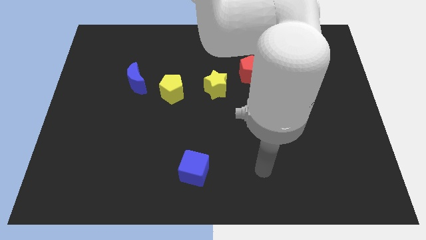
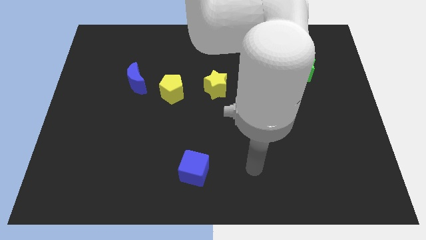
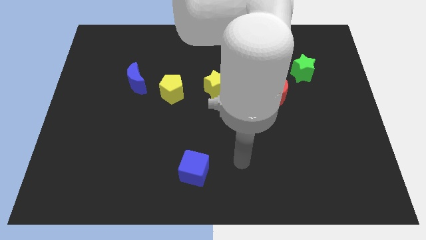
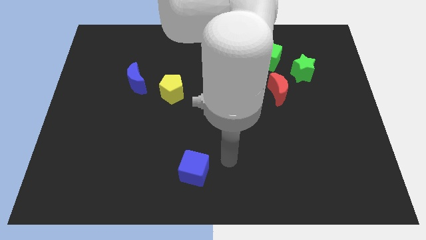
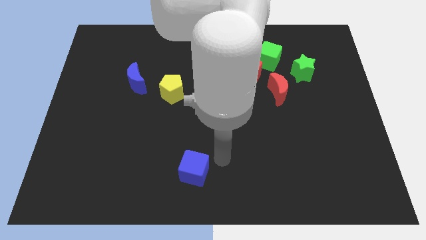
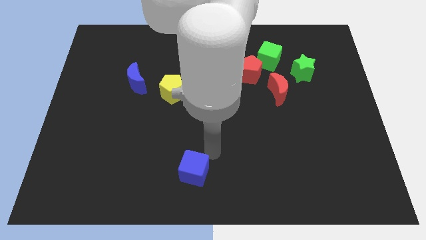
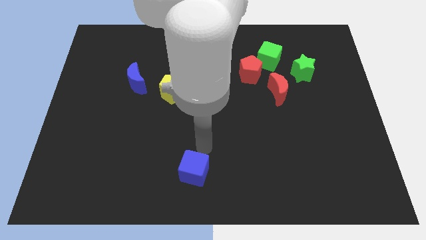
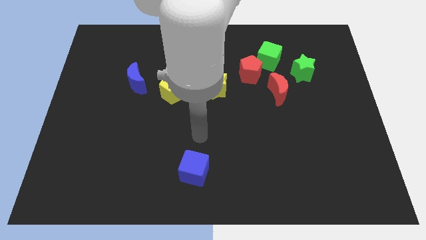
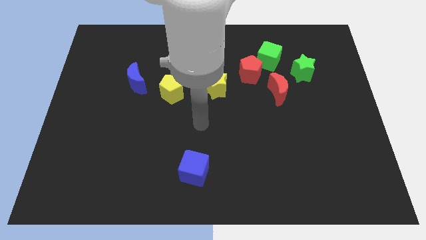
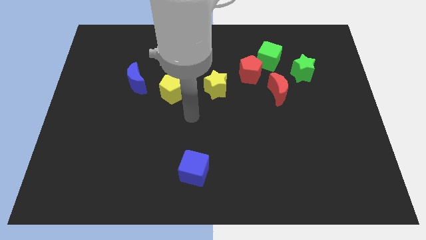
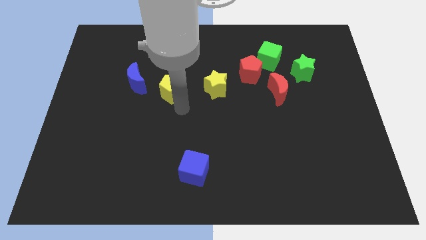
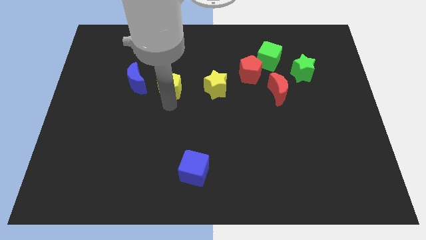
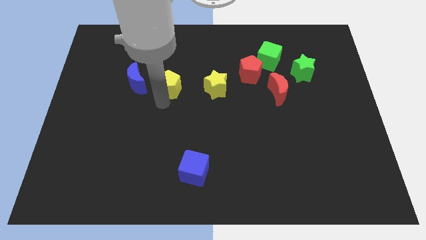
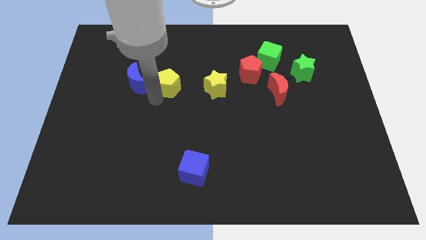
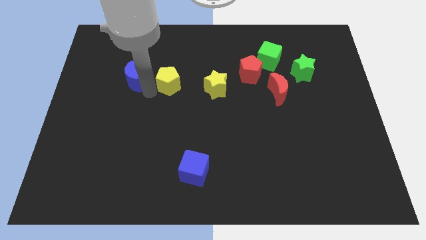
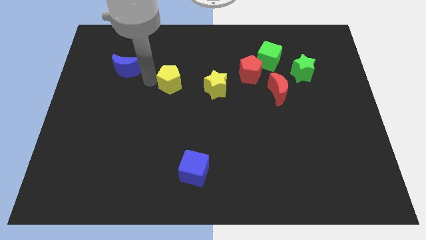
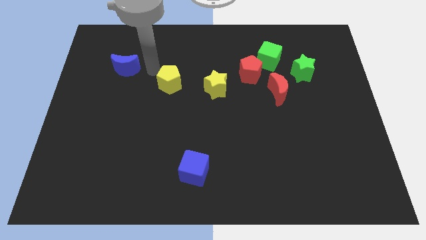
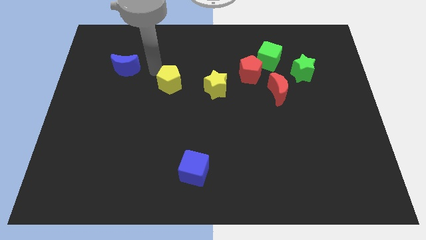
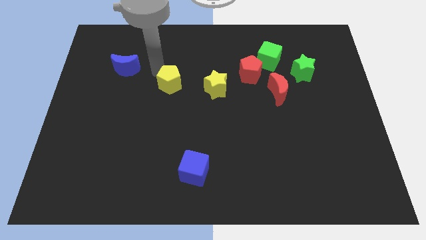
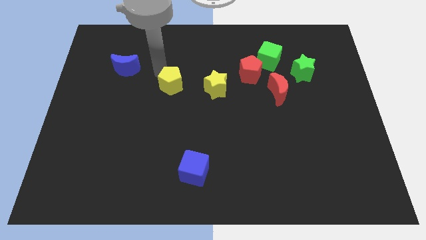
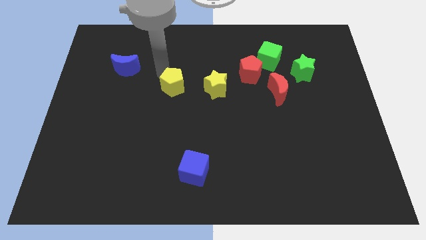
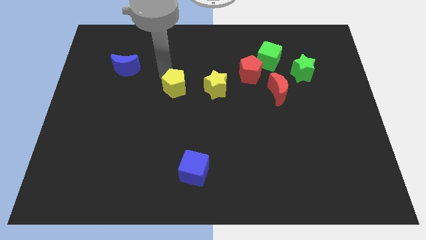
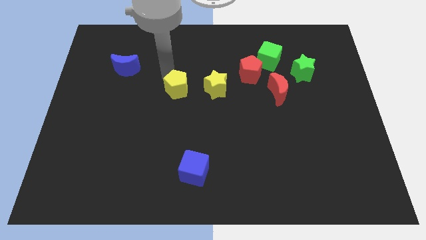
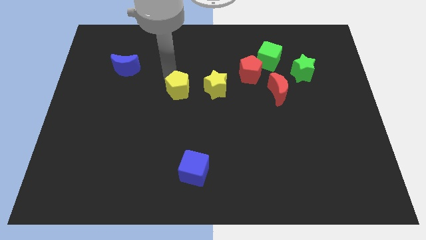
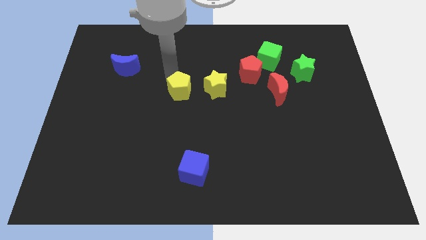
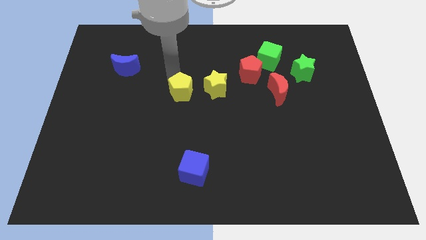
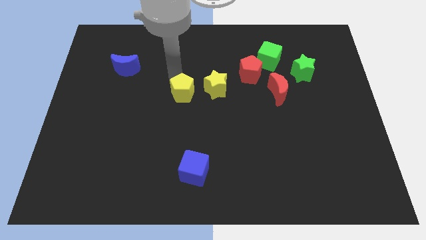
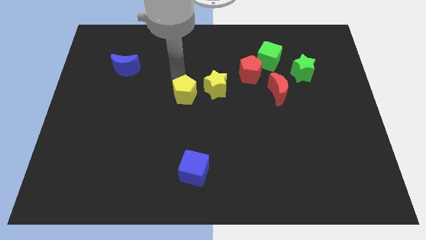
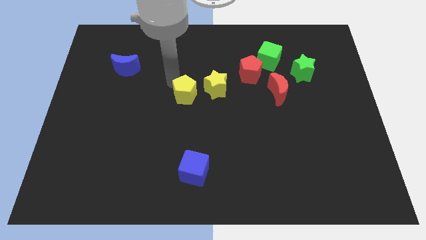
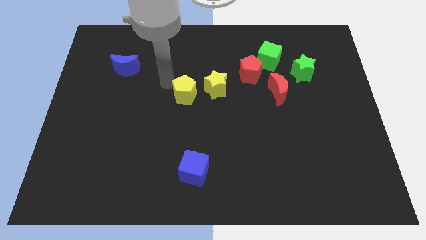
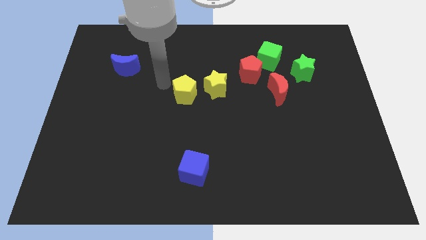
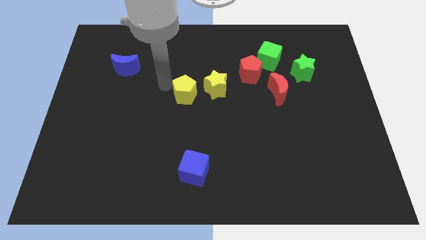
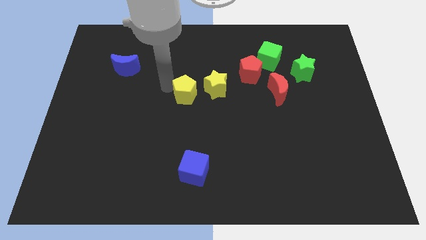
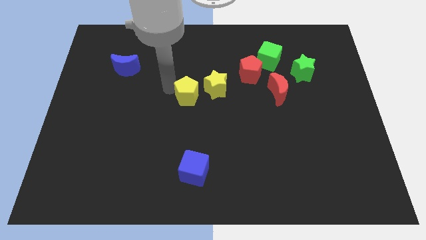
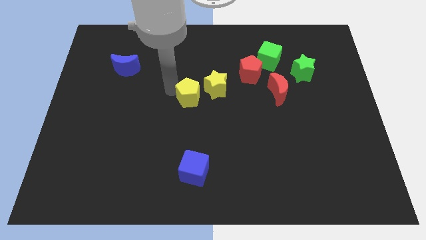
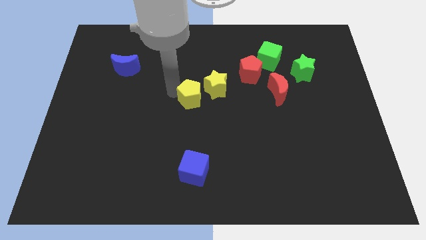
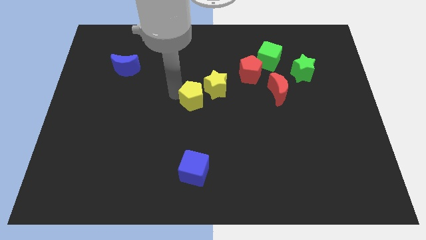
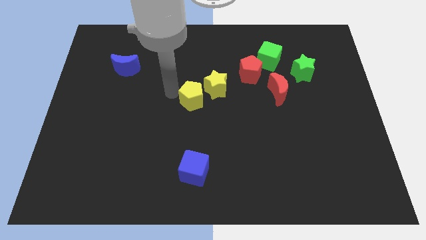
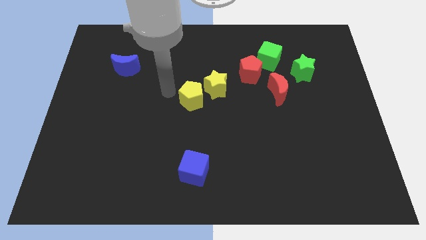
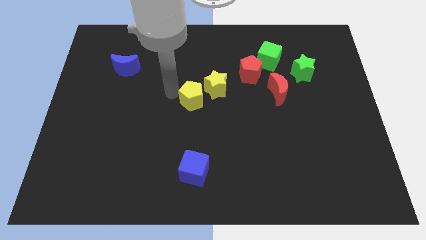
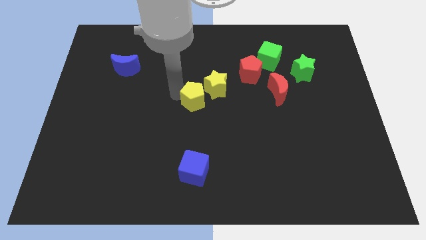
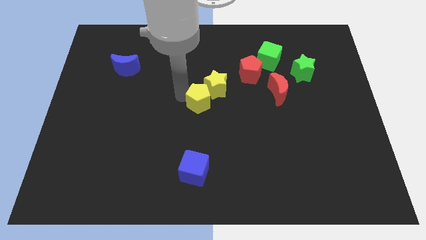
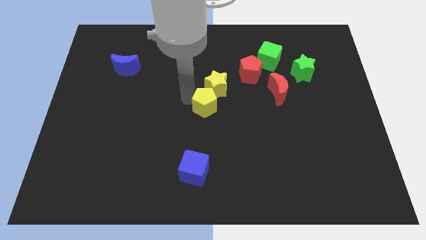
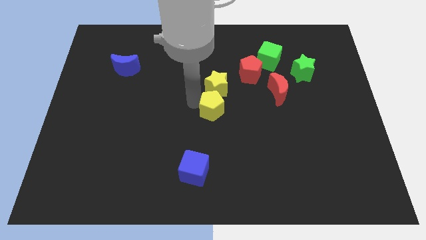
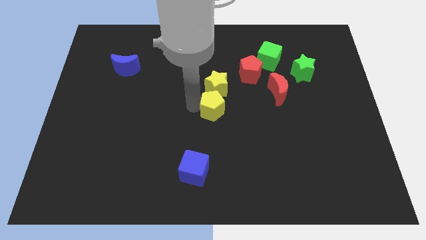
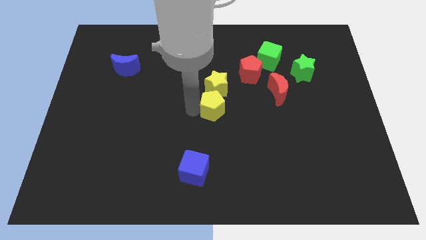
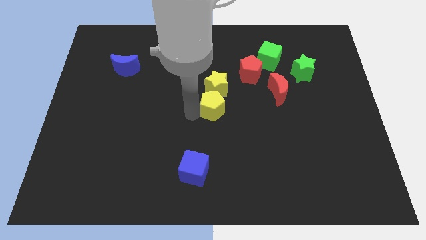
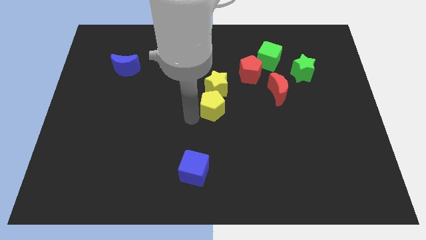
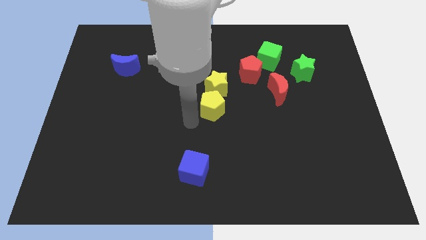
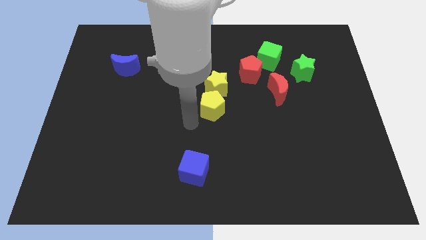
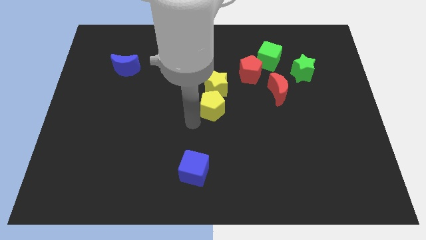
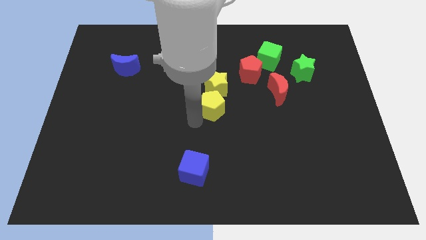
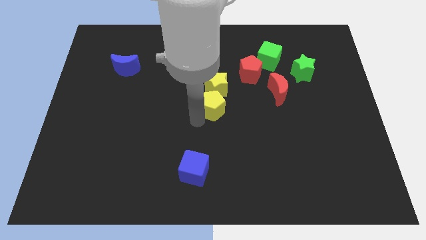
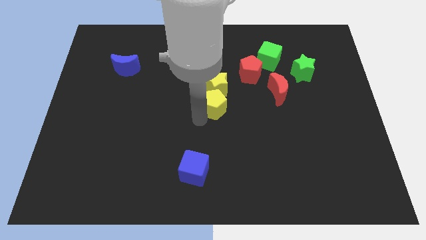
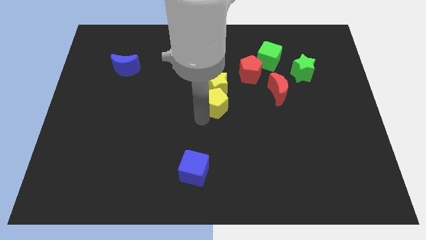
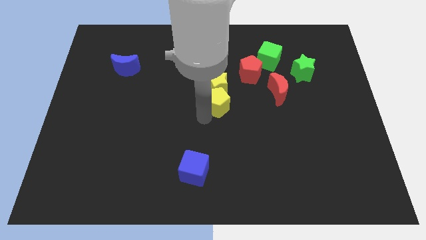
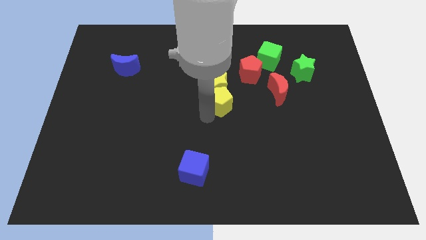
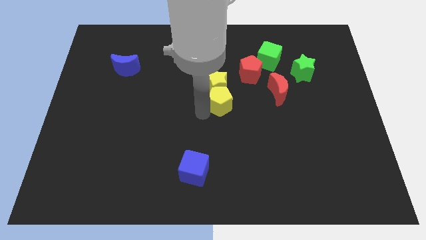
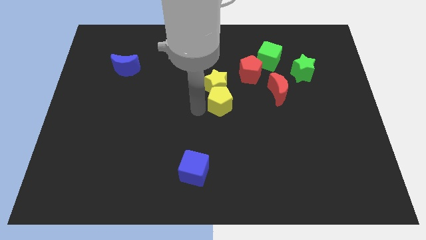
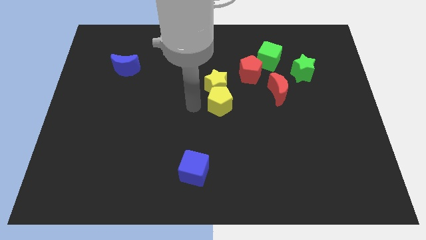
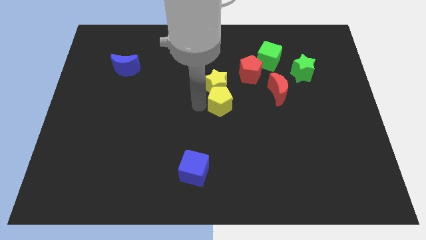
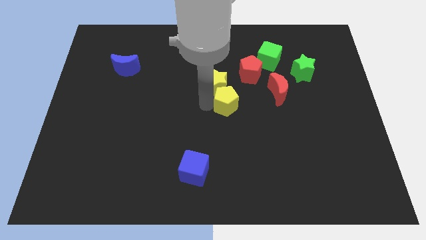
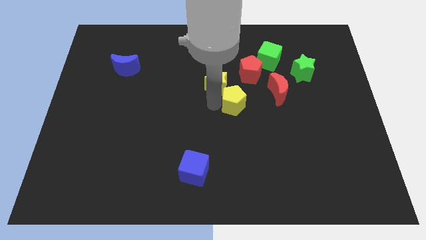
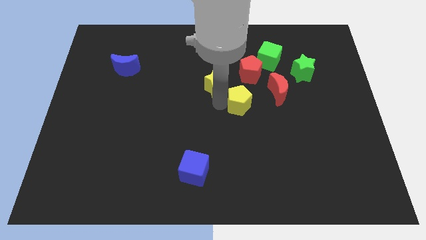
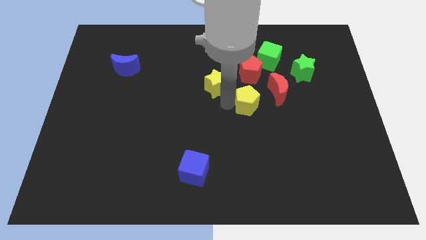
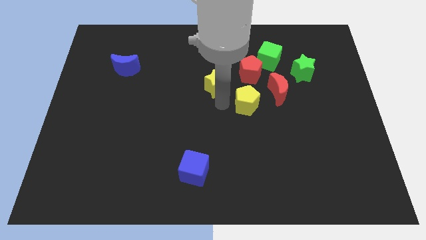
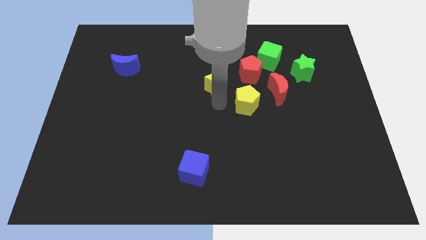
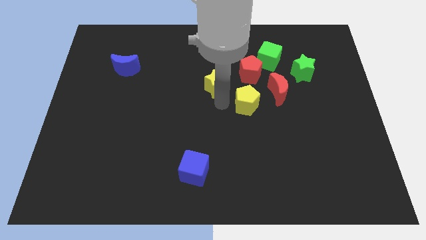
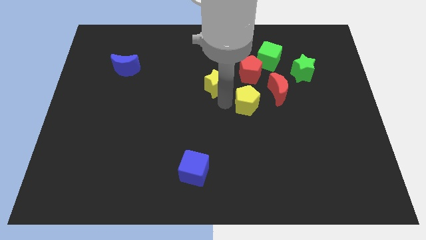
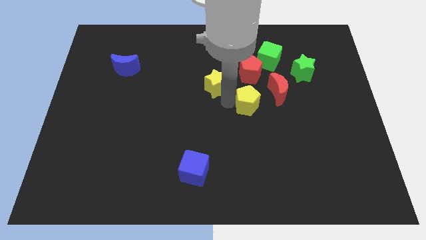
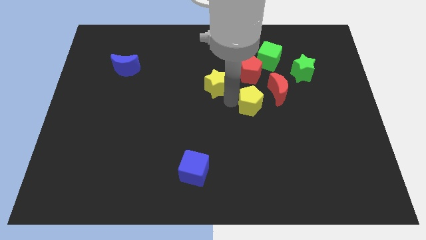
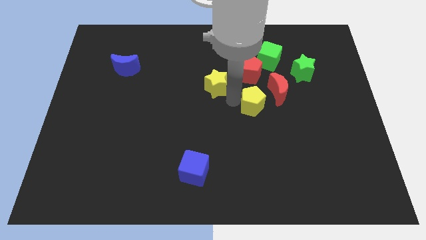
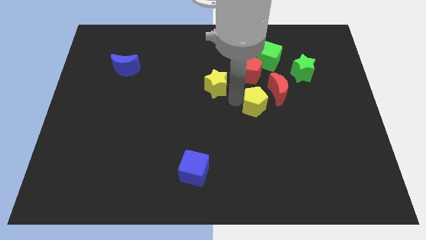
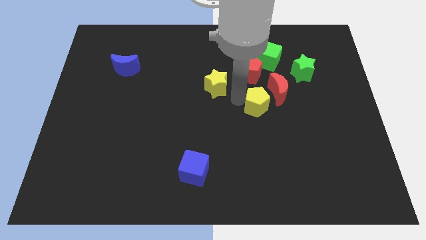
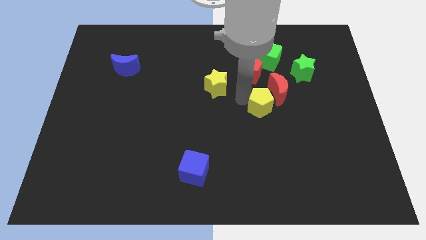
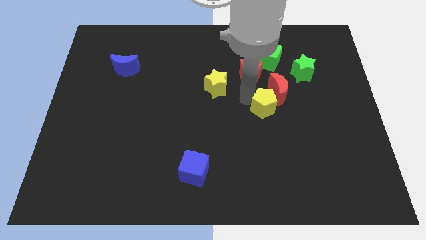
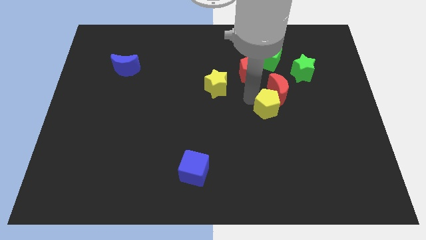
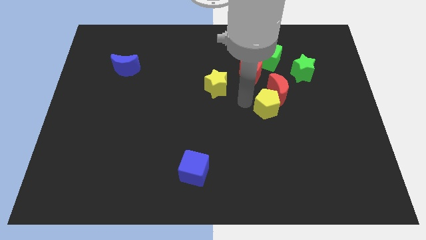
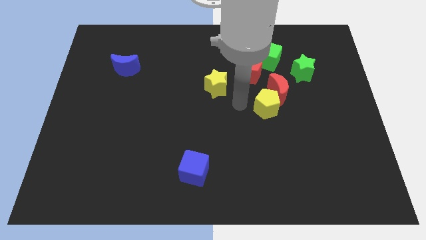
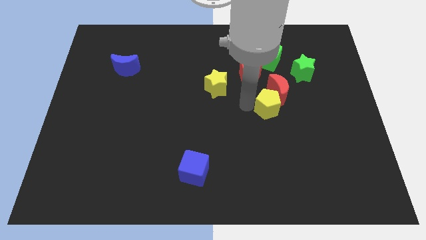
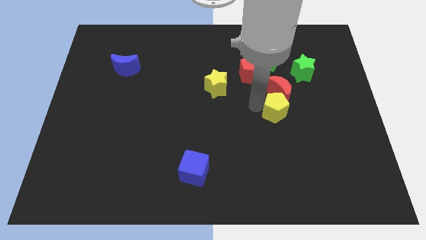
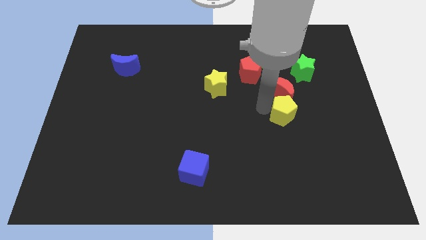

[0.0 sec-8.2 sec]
put the yellow pentagon to the bottom right side of the red moon
